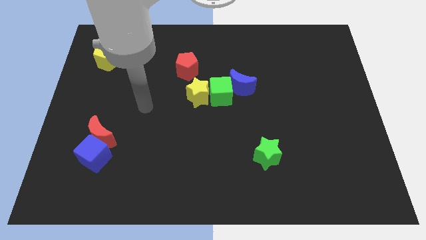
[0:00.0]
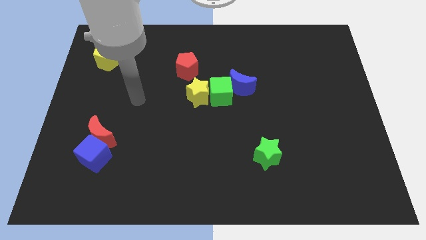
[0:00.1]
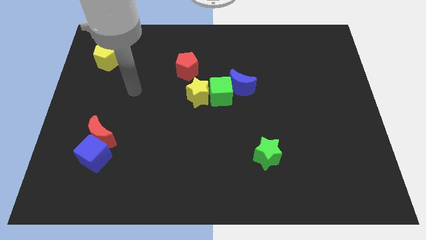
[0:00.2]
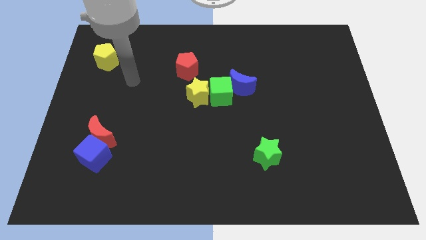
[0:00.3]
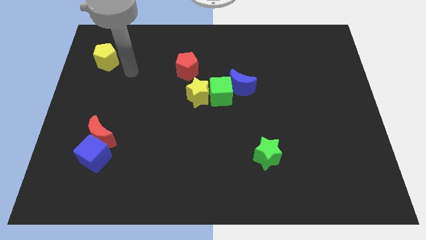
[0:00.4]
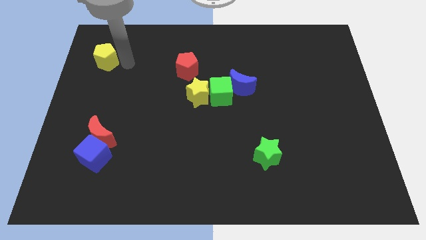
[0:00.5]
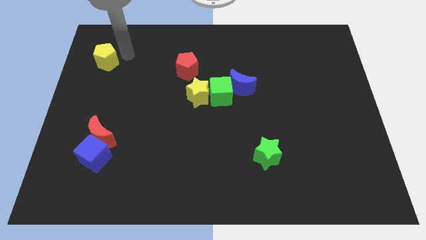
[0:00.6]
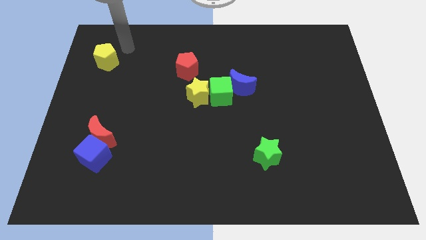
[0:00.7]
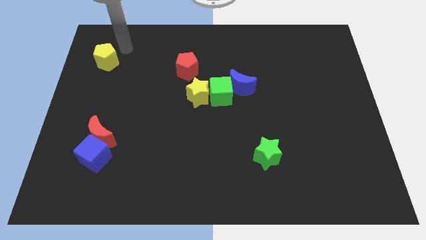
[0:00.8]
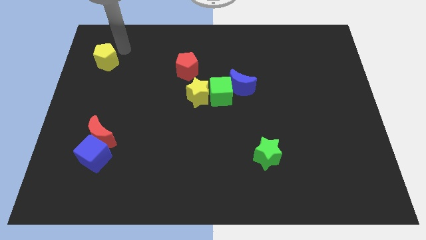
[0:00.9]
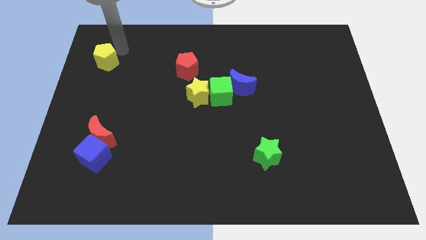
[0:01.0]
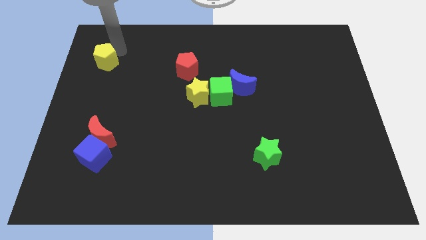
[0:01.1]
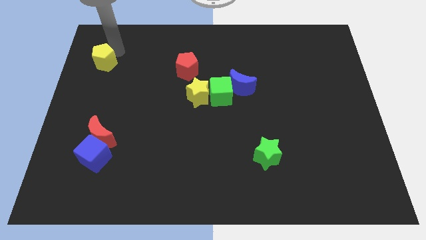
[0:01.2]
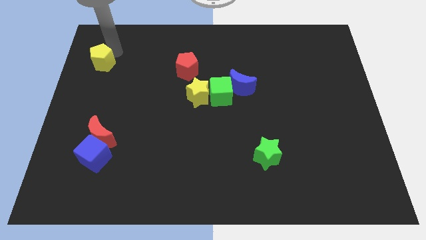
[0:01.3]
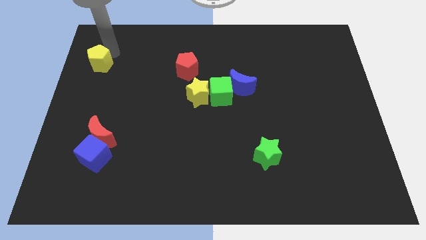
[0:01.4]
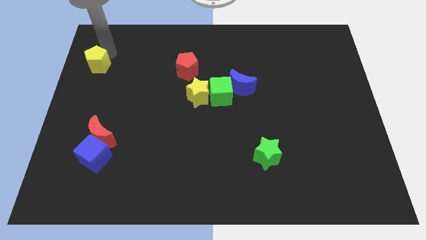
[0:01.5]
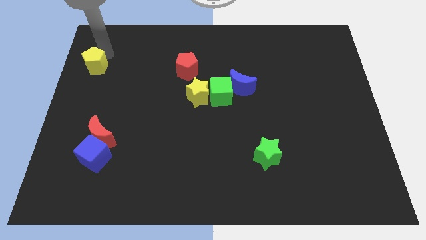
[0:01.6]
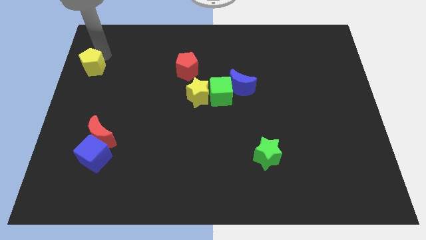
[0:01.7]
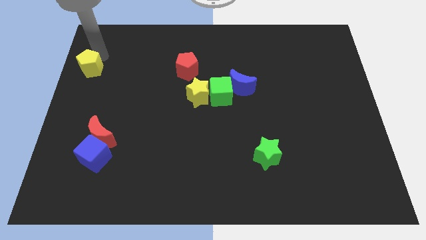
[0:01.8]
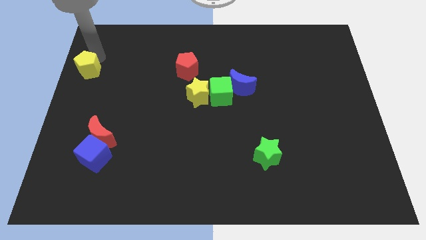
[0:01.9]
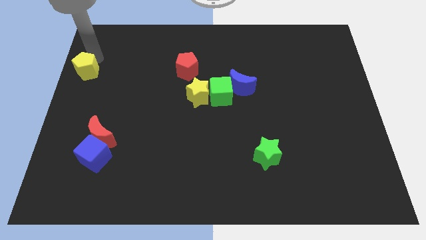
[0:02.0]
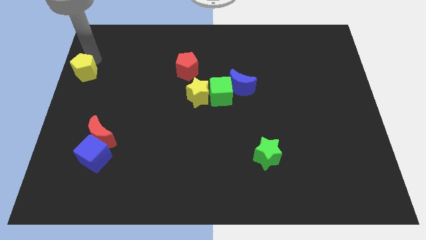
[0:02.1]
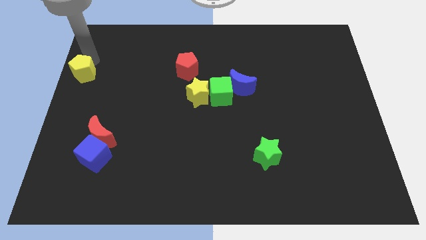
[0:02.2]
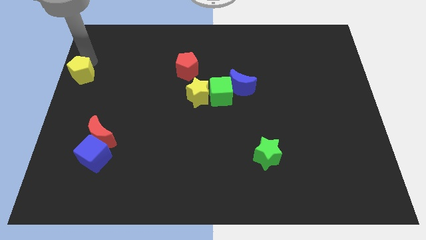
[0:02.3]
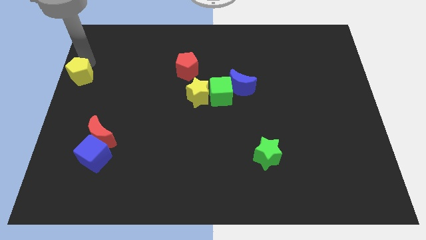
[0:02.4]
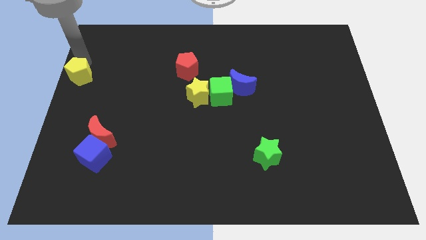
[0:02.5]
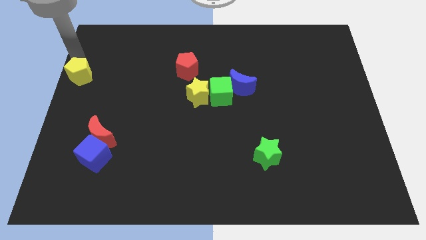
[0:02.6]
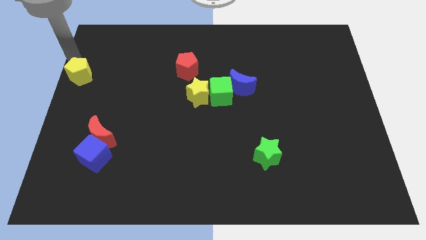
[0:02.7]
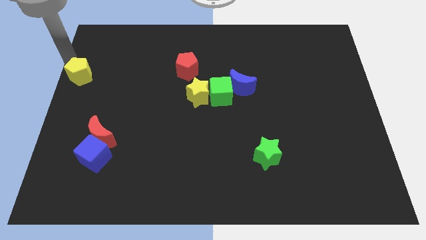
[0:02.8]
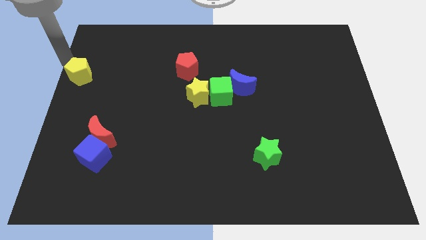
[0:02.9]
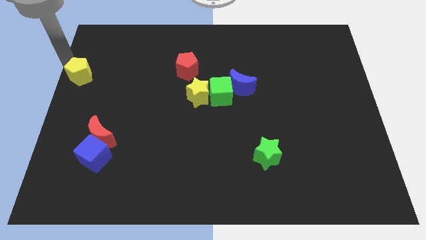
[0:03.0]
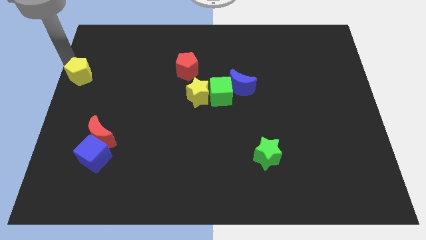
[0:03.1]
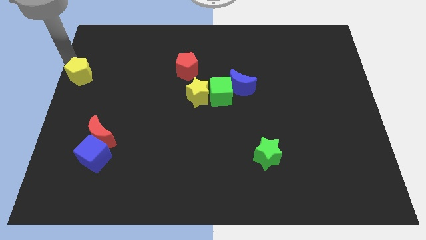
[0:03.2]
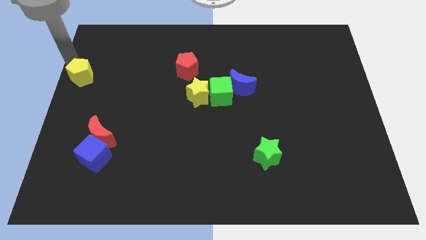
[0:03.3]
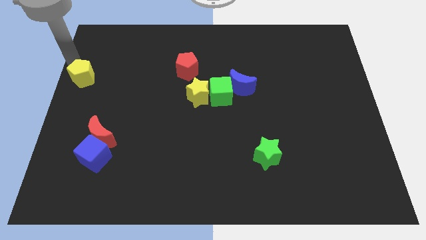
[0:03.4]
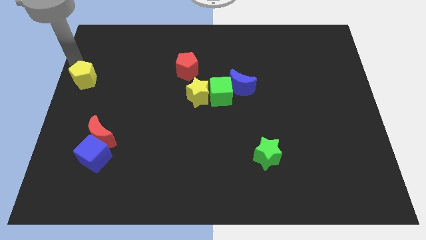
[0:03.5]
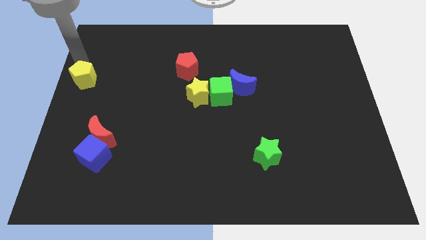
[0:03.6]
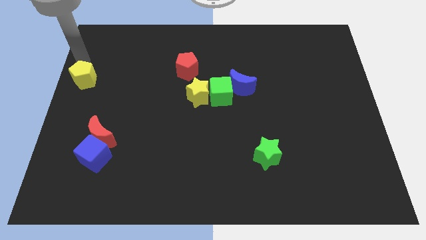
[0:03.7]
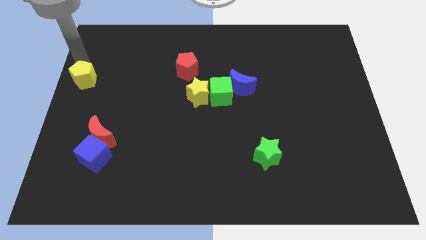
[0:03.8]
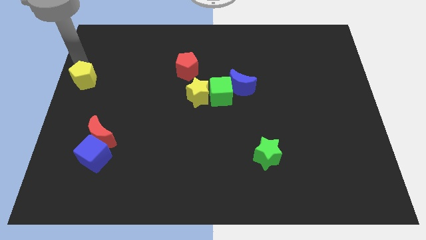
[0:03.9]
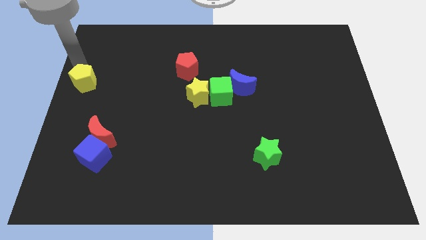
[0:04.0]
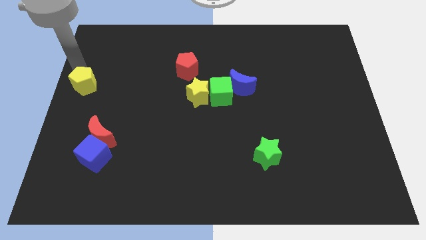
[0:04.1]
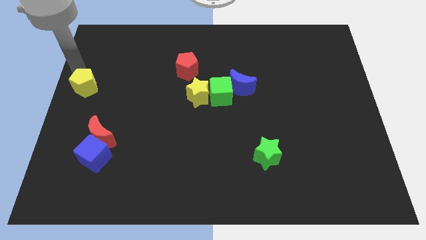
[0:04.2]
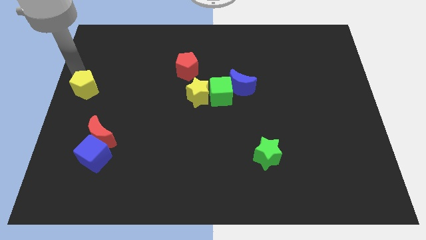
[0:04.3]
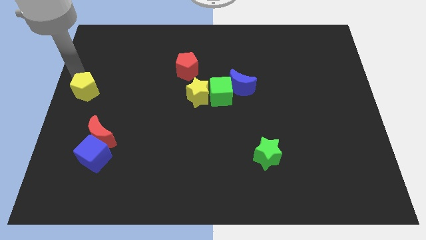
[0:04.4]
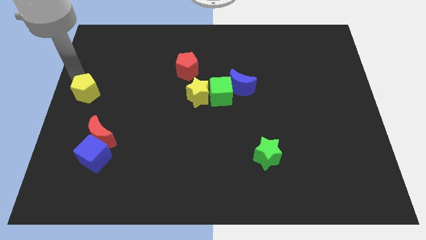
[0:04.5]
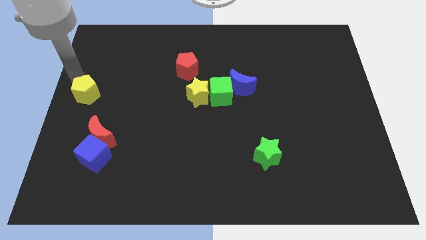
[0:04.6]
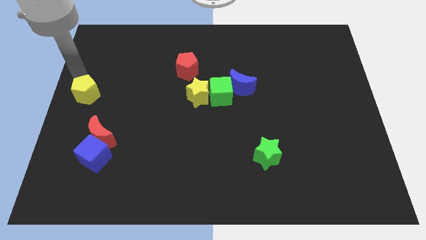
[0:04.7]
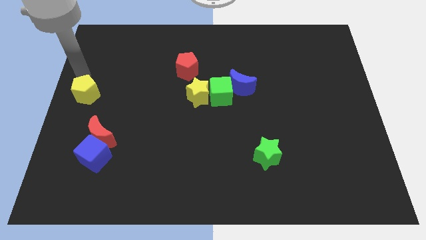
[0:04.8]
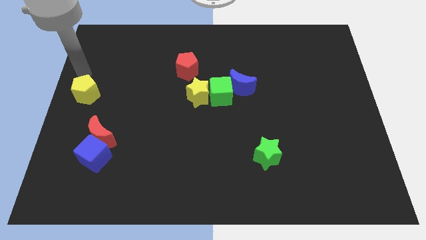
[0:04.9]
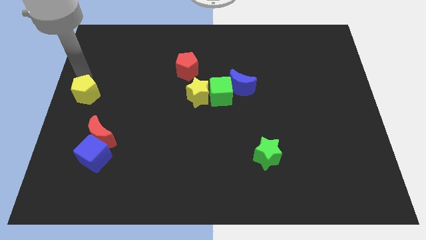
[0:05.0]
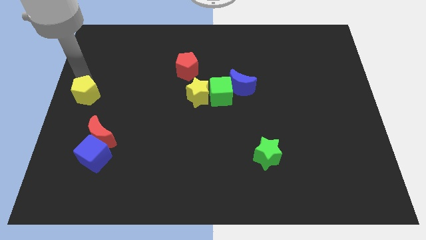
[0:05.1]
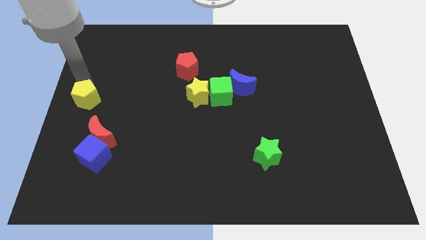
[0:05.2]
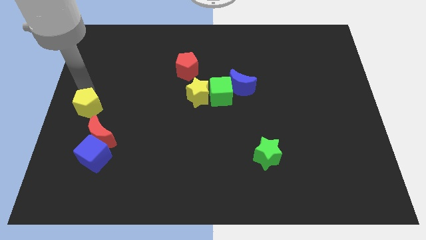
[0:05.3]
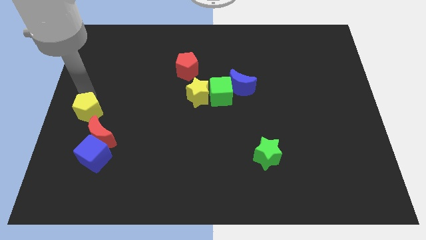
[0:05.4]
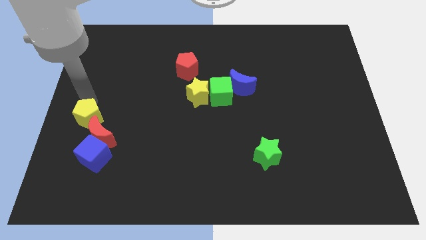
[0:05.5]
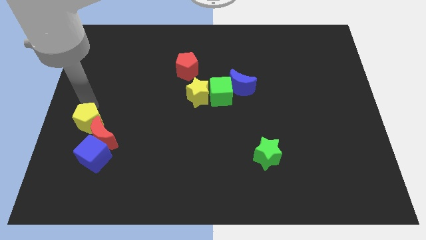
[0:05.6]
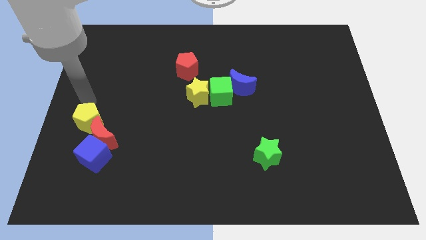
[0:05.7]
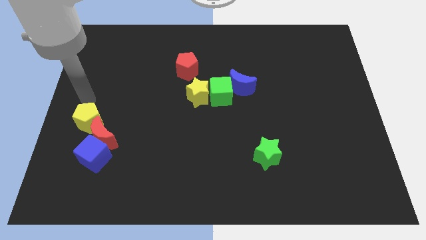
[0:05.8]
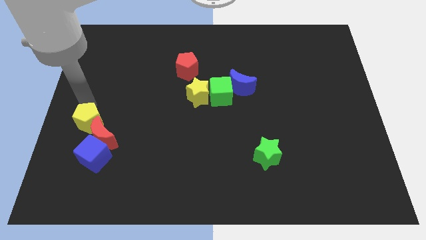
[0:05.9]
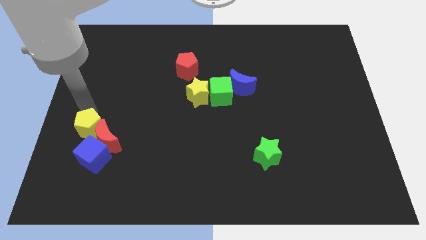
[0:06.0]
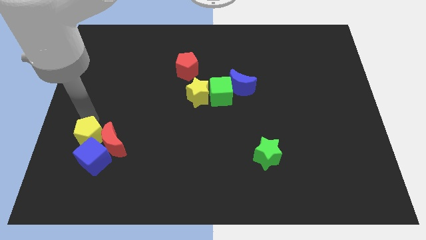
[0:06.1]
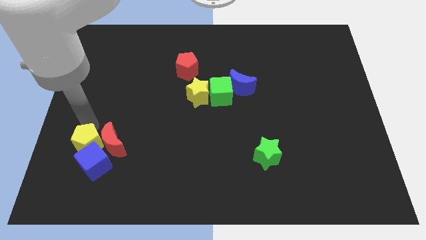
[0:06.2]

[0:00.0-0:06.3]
move the yellow pentagon next to the blue cube

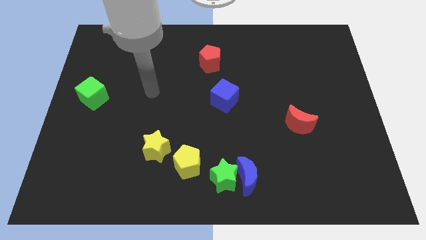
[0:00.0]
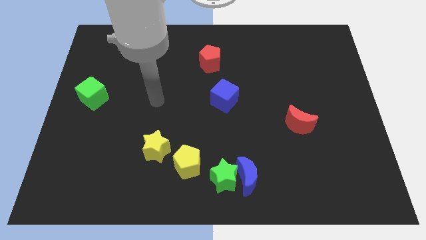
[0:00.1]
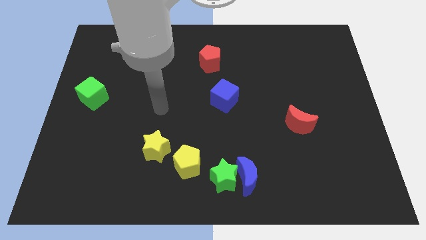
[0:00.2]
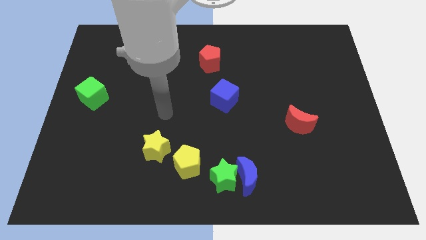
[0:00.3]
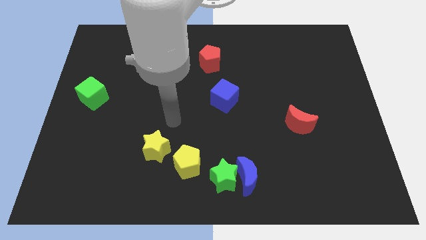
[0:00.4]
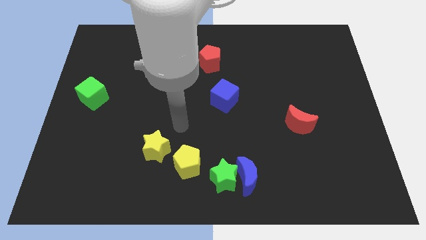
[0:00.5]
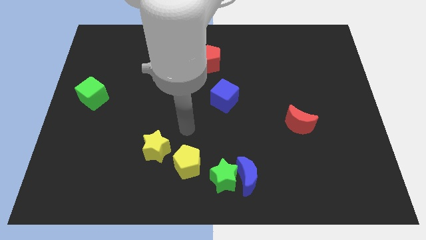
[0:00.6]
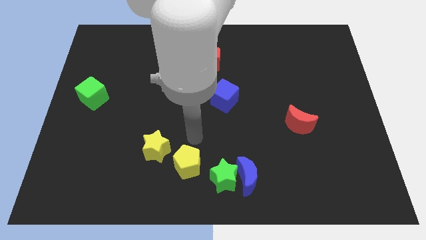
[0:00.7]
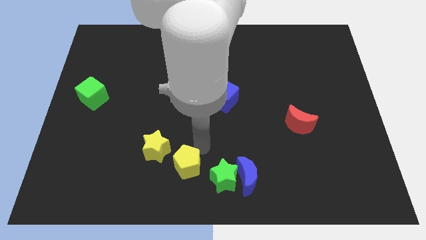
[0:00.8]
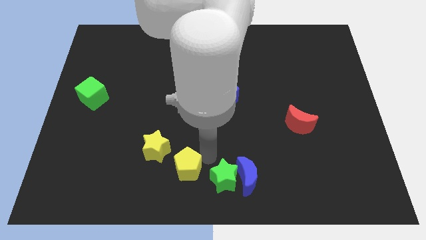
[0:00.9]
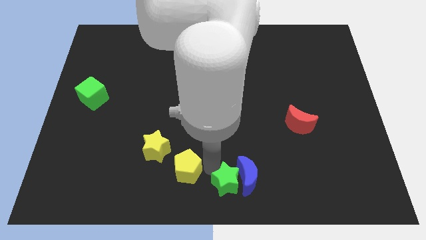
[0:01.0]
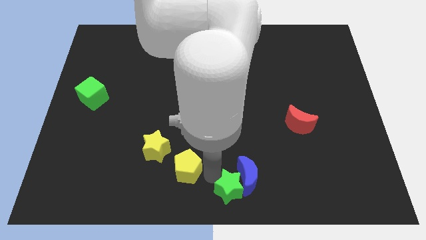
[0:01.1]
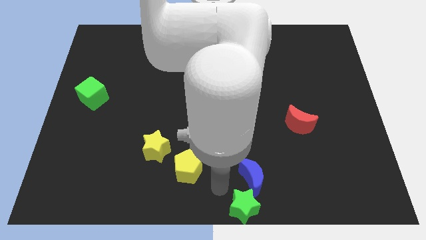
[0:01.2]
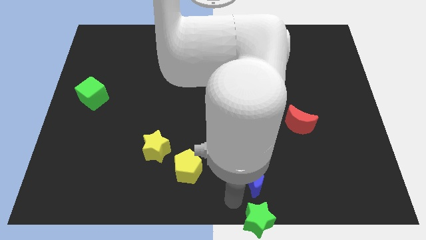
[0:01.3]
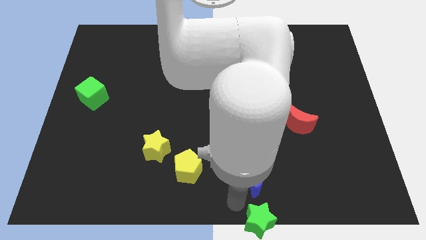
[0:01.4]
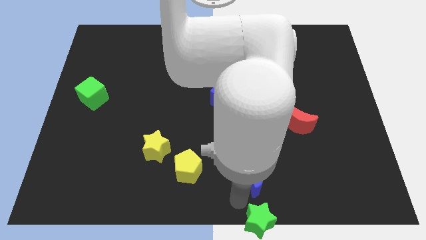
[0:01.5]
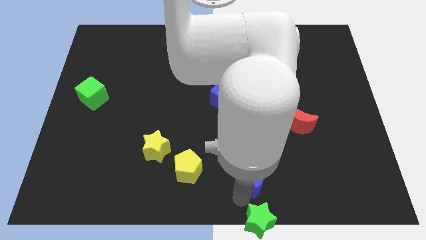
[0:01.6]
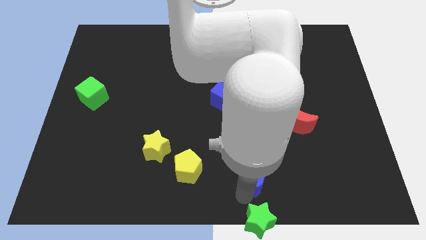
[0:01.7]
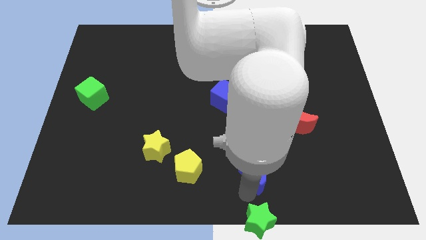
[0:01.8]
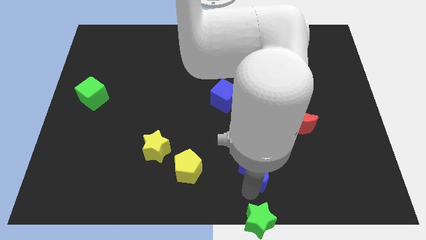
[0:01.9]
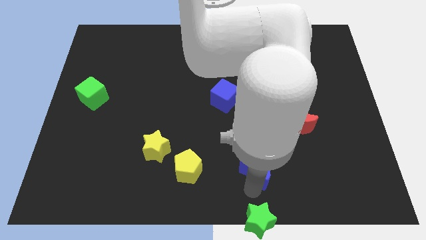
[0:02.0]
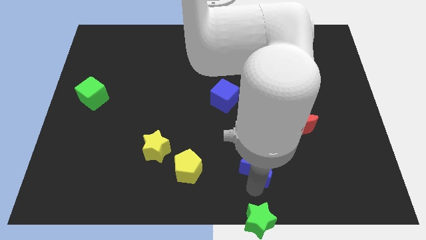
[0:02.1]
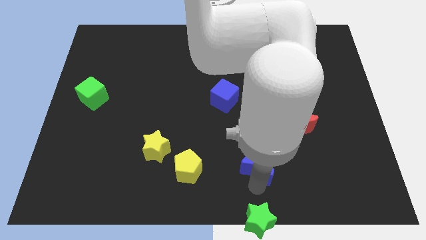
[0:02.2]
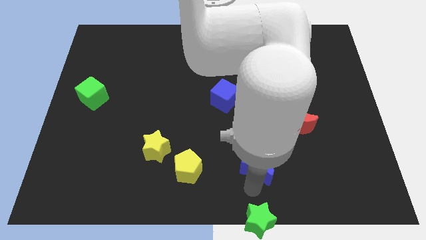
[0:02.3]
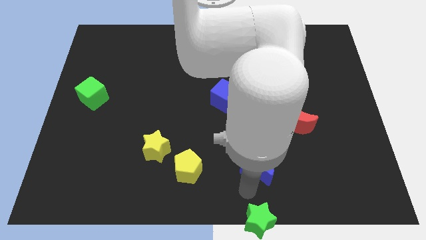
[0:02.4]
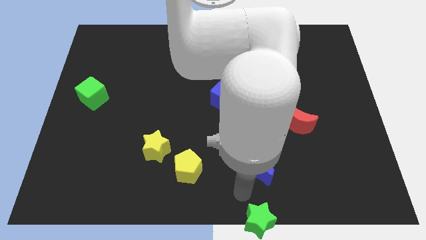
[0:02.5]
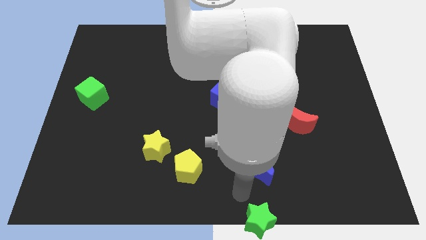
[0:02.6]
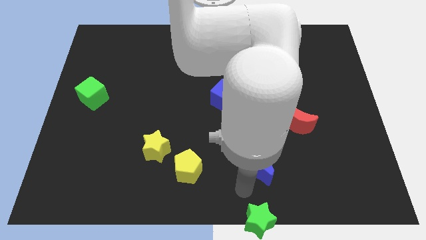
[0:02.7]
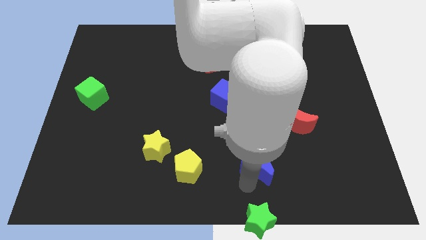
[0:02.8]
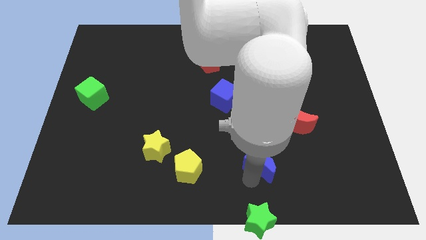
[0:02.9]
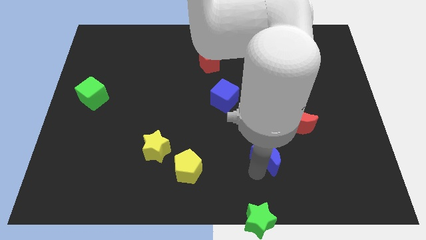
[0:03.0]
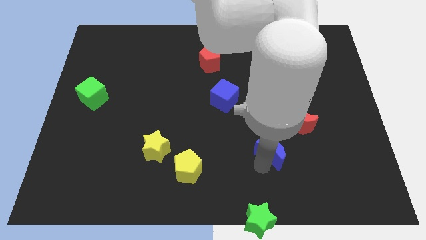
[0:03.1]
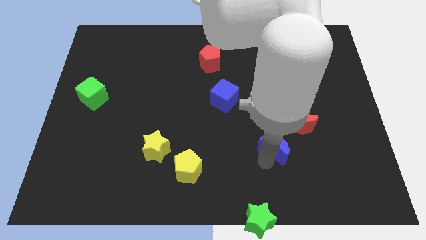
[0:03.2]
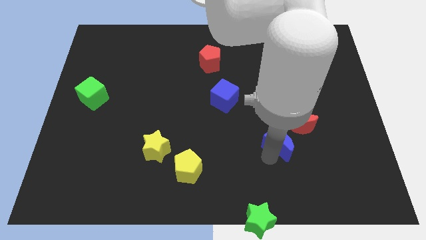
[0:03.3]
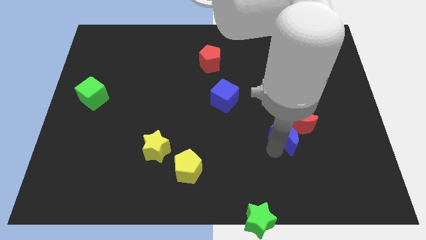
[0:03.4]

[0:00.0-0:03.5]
move the blue moon towards the red moon
